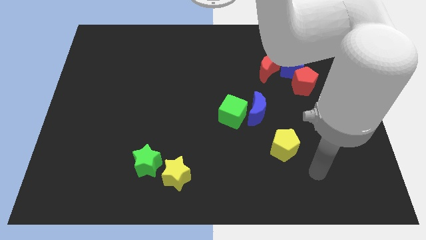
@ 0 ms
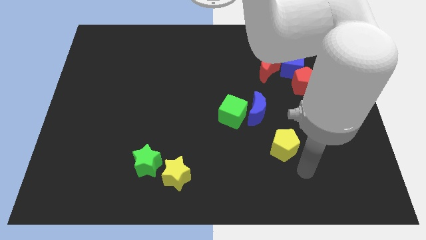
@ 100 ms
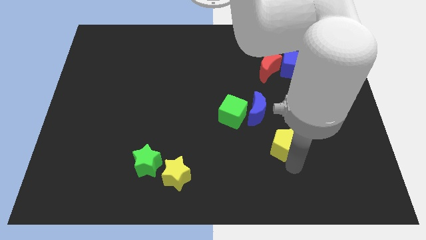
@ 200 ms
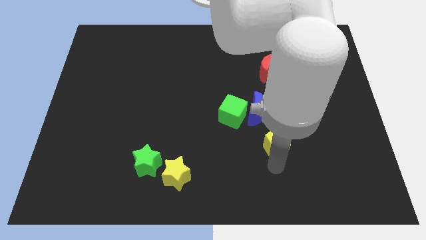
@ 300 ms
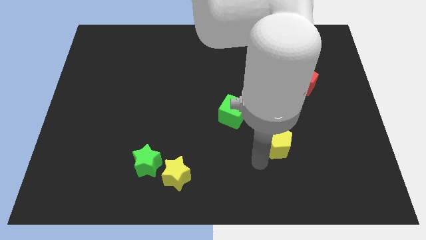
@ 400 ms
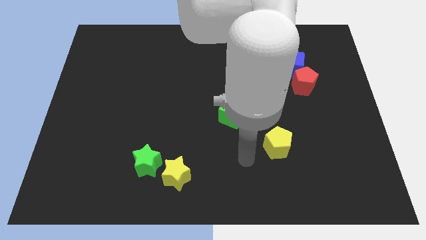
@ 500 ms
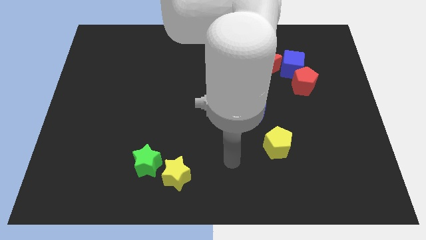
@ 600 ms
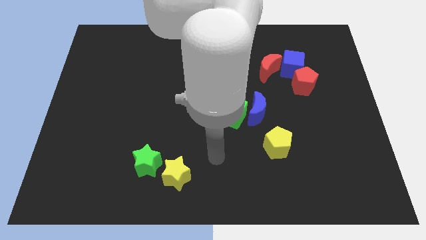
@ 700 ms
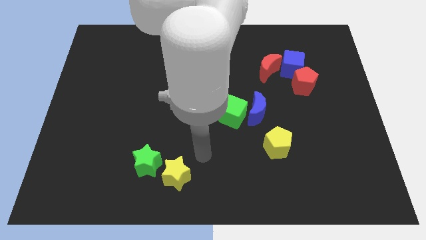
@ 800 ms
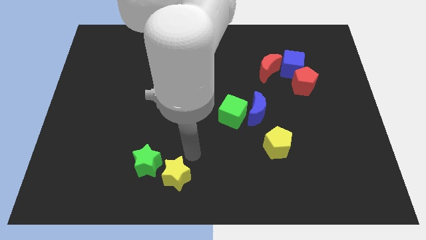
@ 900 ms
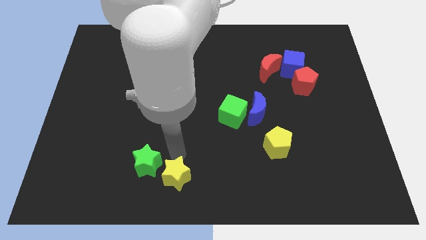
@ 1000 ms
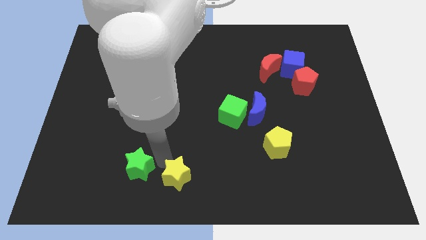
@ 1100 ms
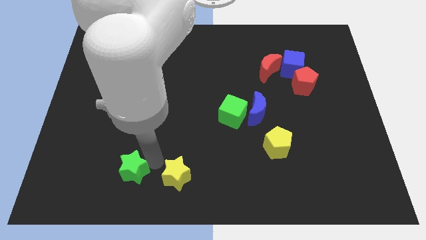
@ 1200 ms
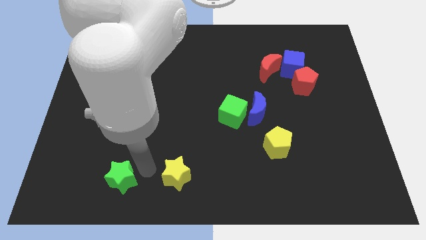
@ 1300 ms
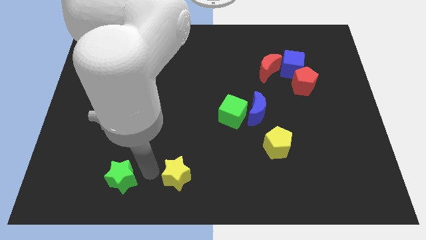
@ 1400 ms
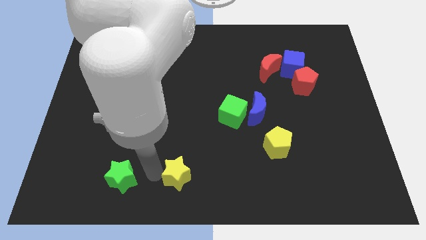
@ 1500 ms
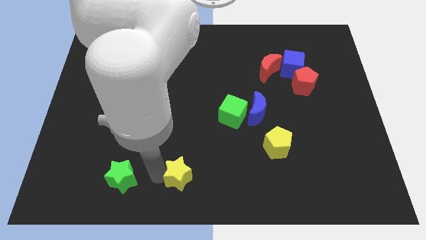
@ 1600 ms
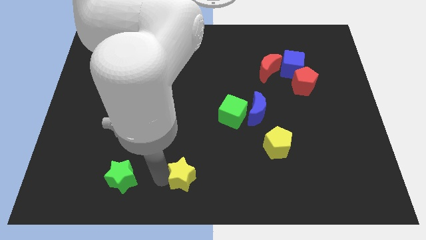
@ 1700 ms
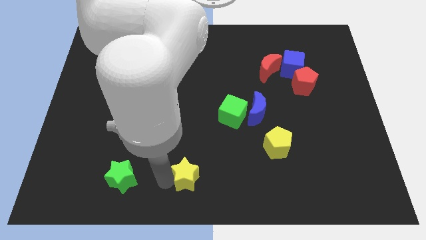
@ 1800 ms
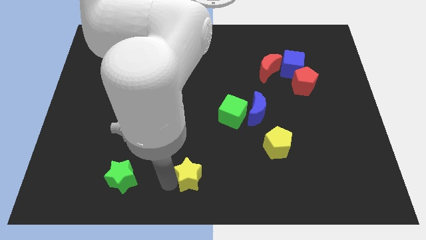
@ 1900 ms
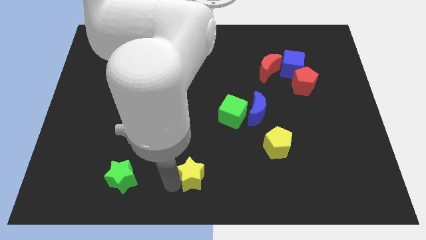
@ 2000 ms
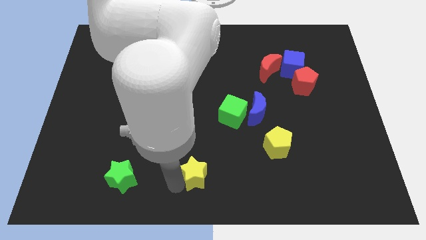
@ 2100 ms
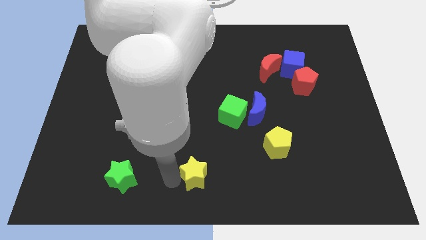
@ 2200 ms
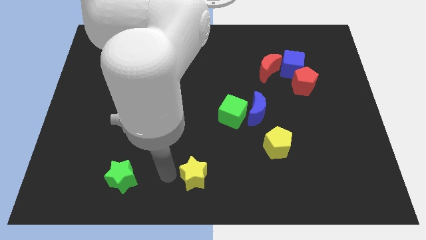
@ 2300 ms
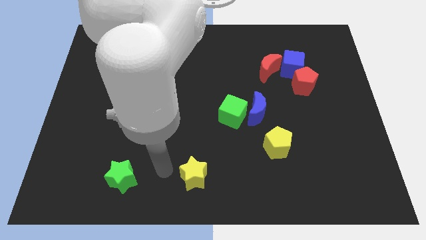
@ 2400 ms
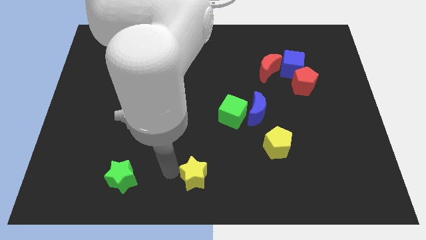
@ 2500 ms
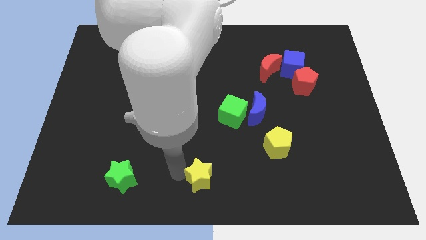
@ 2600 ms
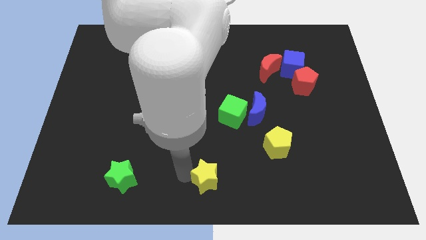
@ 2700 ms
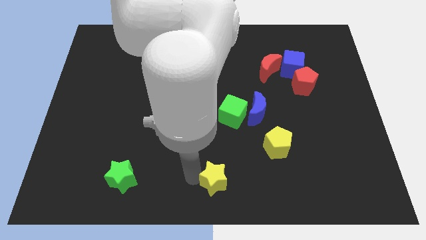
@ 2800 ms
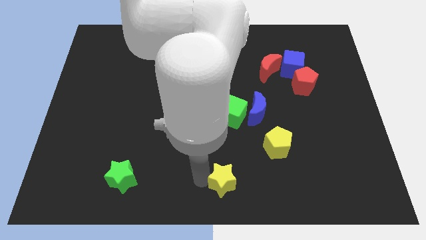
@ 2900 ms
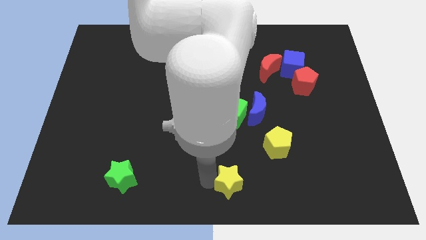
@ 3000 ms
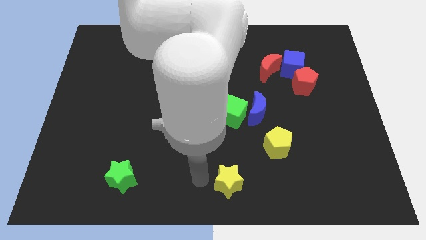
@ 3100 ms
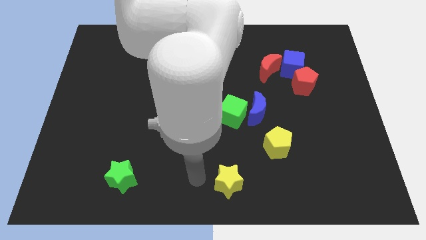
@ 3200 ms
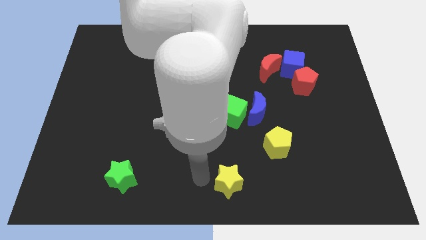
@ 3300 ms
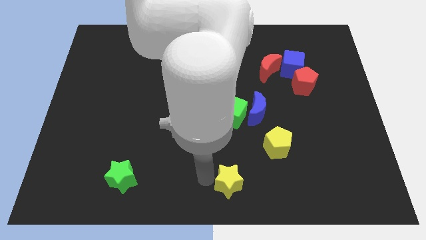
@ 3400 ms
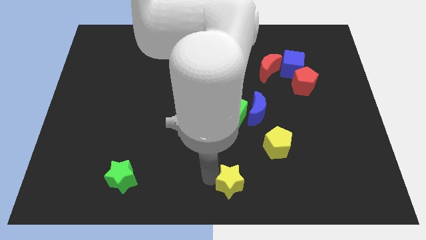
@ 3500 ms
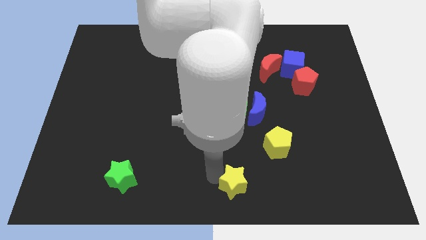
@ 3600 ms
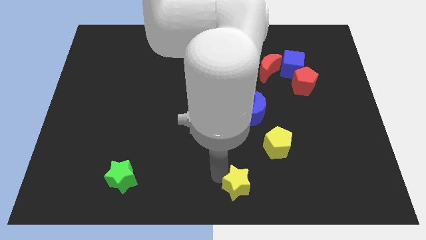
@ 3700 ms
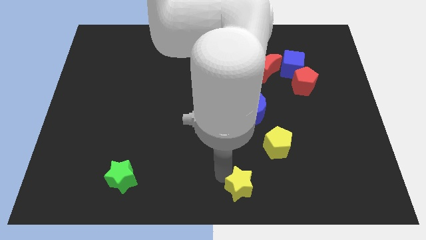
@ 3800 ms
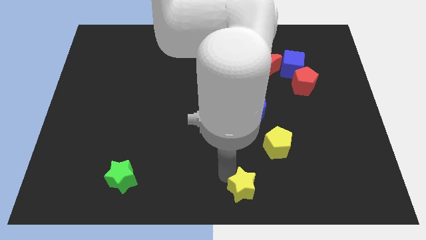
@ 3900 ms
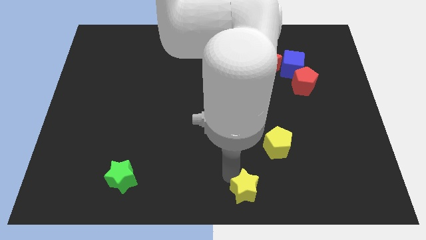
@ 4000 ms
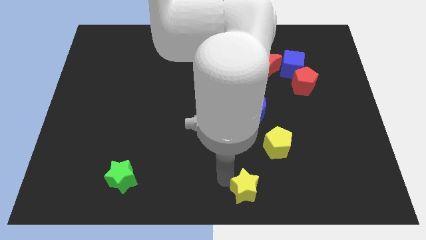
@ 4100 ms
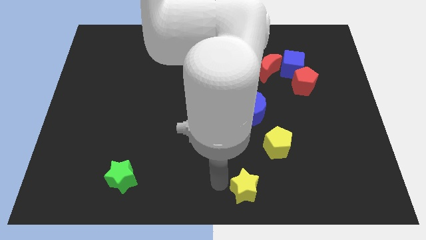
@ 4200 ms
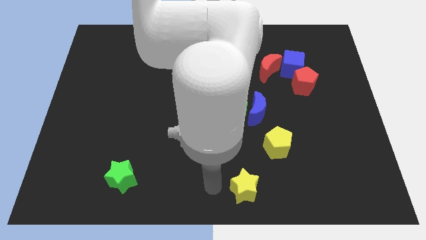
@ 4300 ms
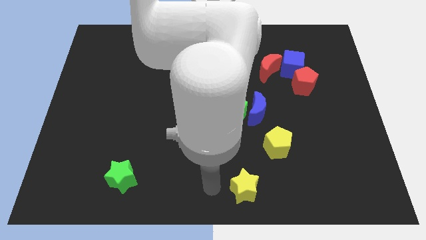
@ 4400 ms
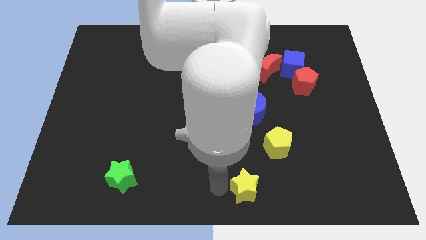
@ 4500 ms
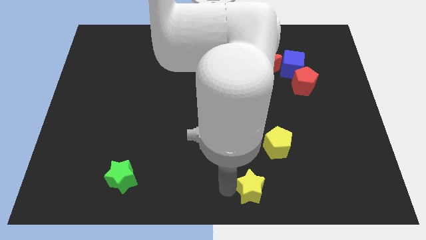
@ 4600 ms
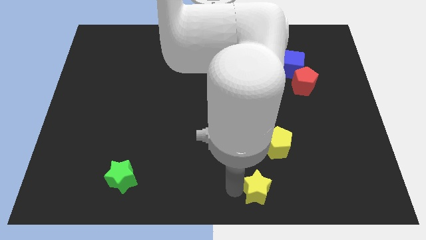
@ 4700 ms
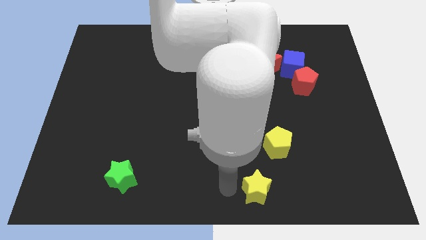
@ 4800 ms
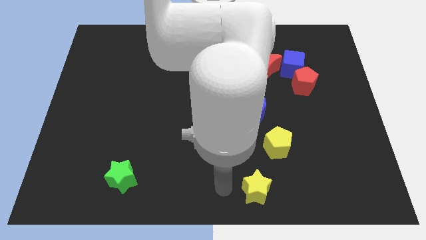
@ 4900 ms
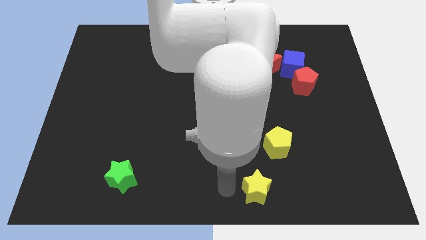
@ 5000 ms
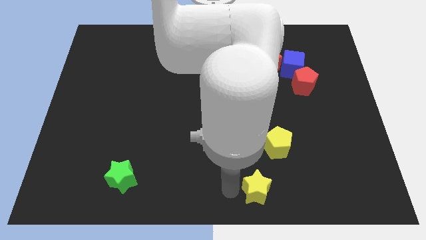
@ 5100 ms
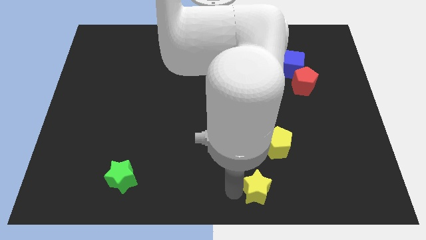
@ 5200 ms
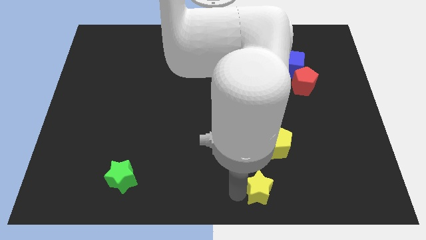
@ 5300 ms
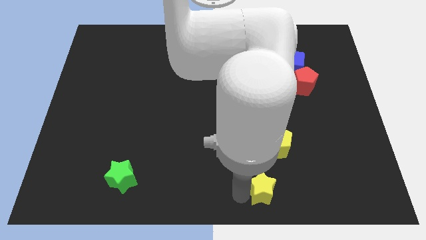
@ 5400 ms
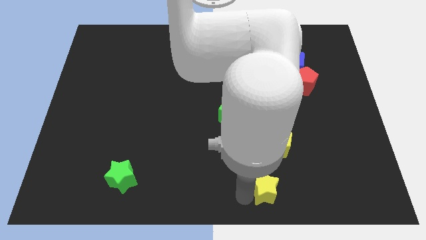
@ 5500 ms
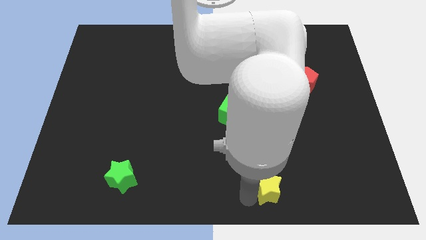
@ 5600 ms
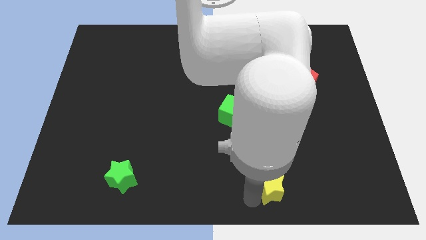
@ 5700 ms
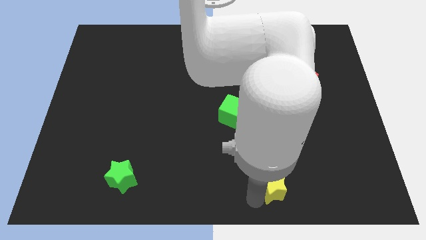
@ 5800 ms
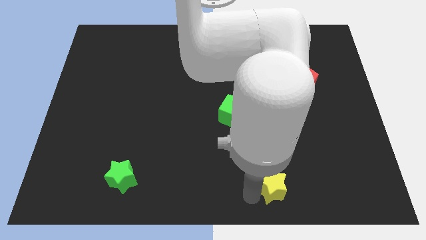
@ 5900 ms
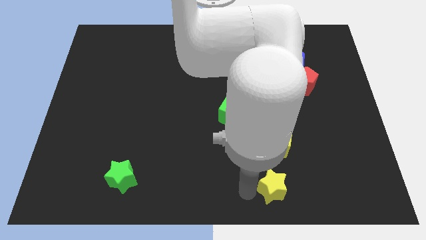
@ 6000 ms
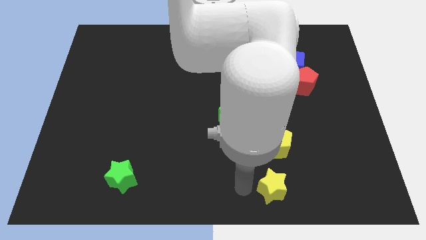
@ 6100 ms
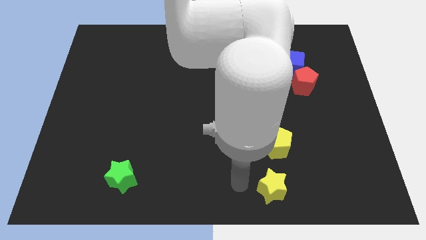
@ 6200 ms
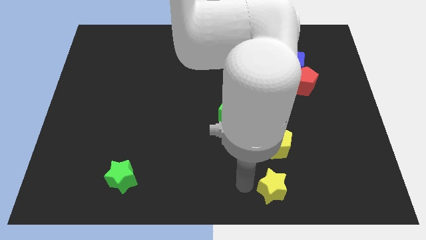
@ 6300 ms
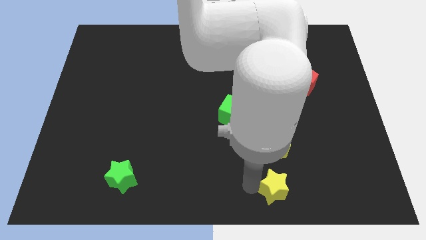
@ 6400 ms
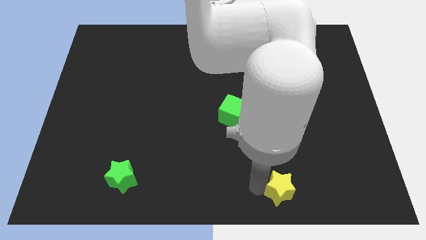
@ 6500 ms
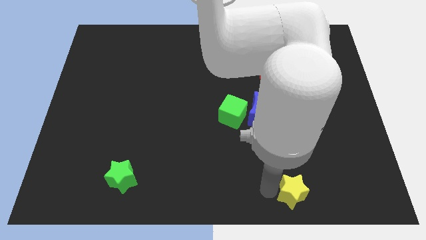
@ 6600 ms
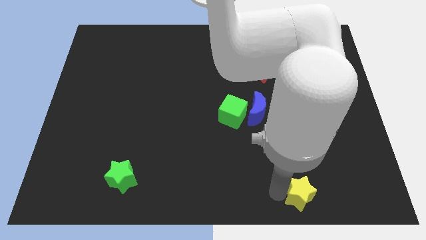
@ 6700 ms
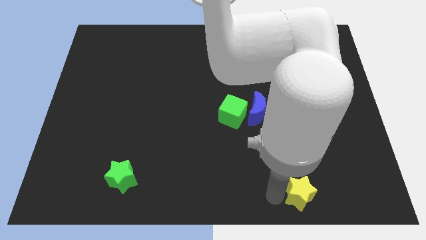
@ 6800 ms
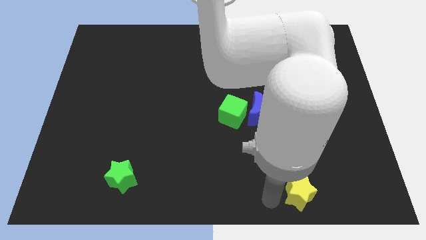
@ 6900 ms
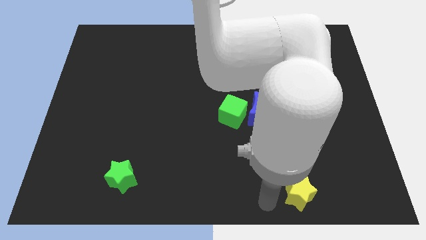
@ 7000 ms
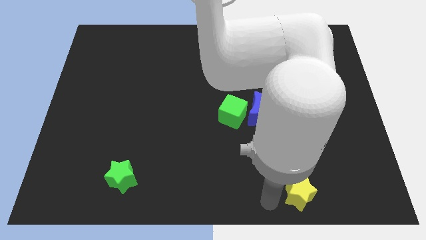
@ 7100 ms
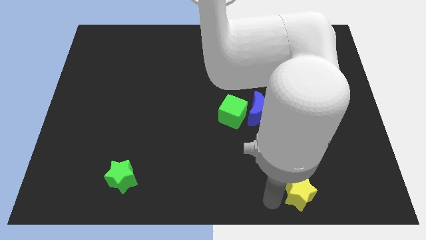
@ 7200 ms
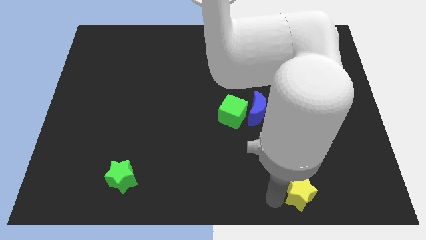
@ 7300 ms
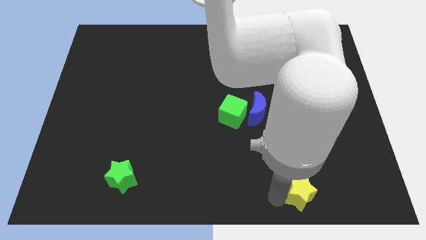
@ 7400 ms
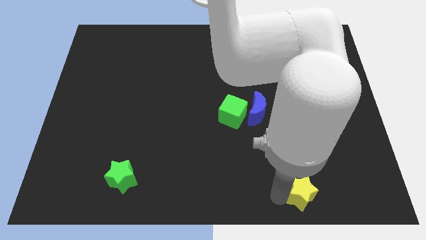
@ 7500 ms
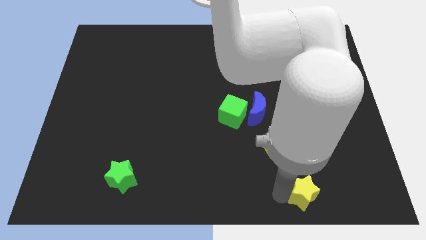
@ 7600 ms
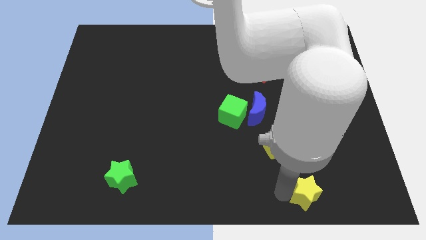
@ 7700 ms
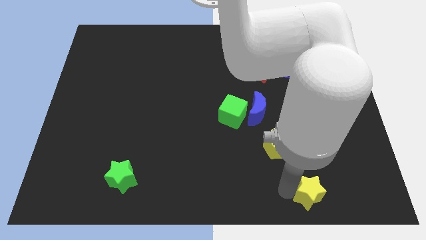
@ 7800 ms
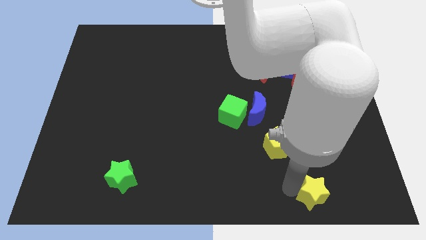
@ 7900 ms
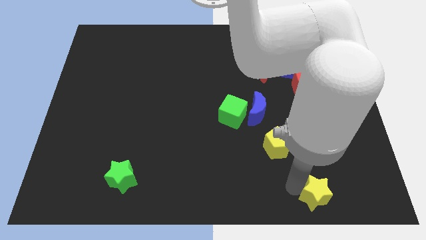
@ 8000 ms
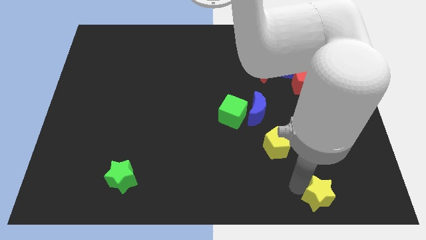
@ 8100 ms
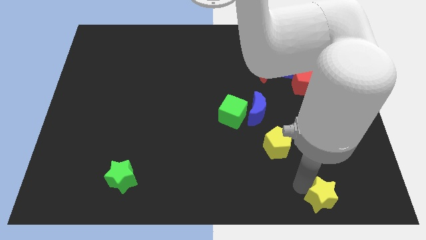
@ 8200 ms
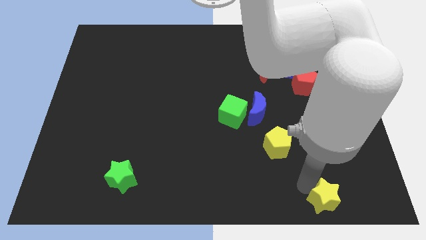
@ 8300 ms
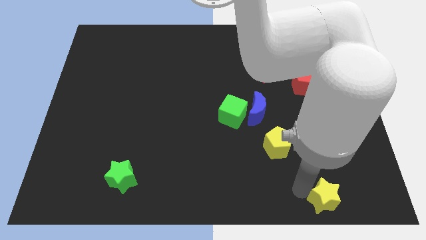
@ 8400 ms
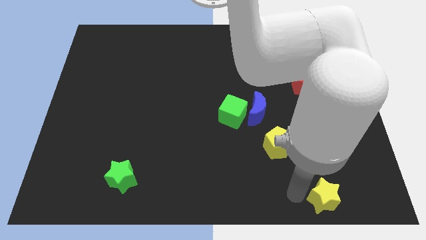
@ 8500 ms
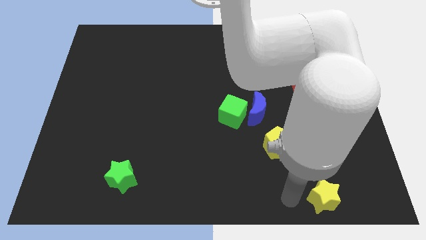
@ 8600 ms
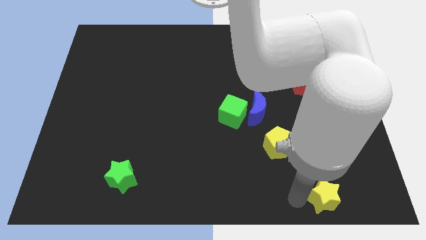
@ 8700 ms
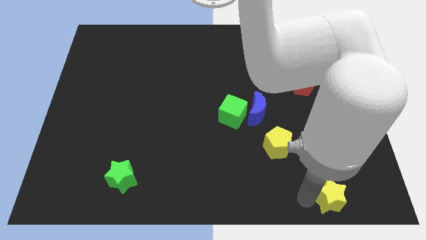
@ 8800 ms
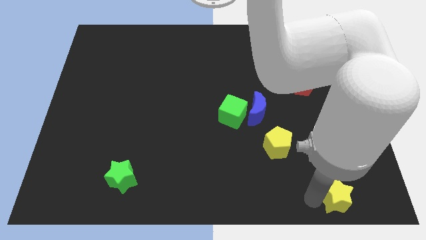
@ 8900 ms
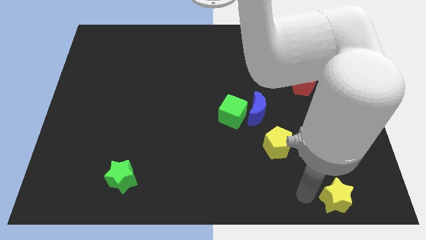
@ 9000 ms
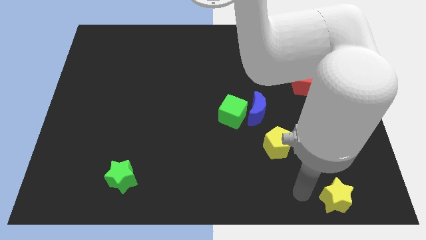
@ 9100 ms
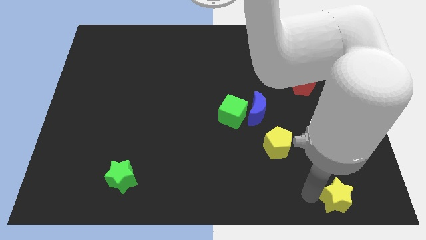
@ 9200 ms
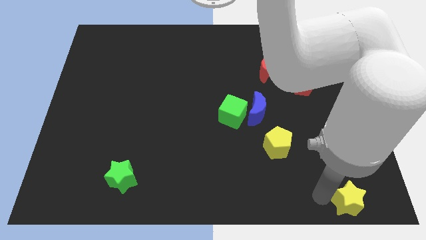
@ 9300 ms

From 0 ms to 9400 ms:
slide the yellow star to the bottom right corner
